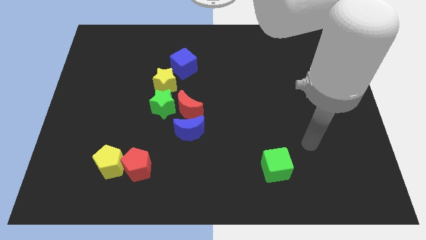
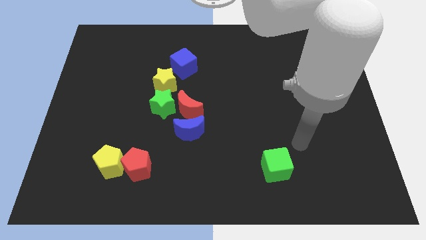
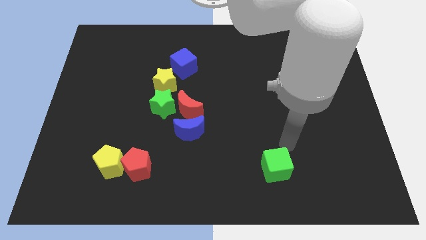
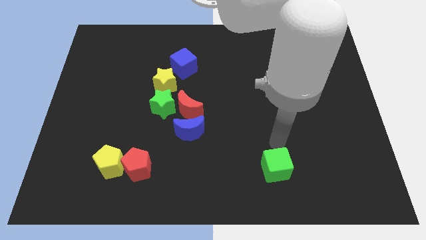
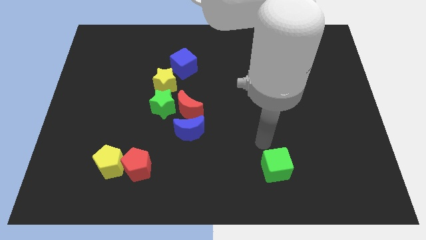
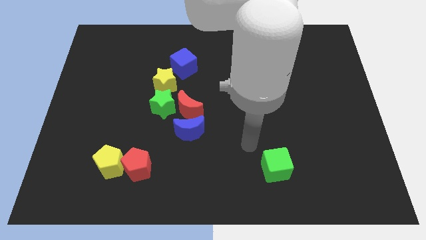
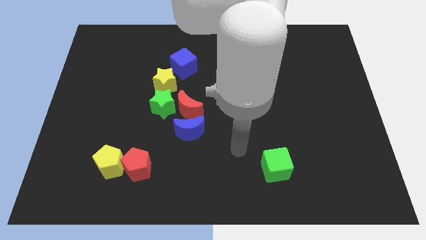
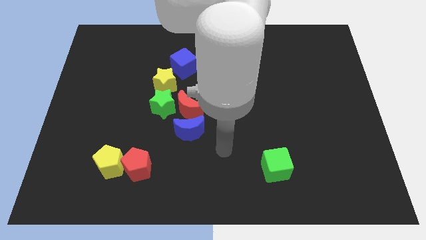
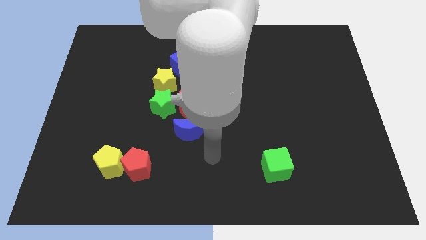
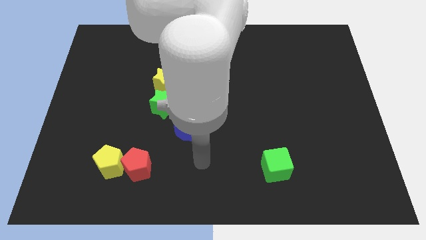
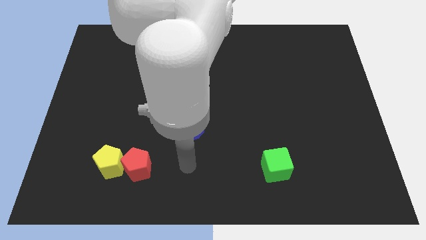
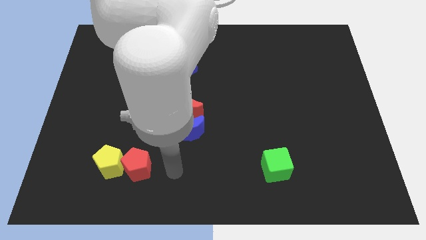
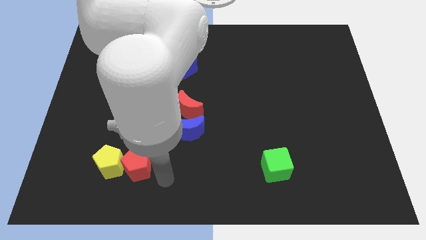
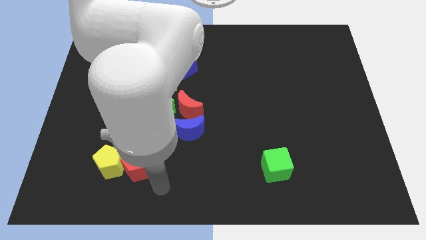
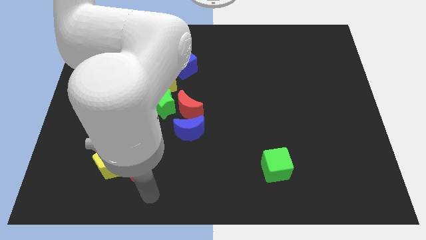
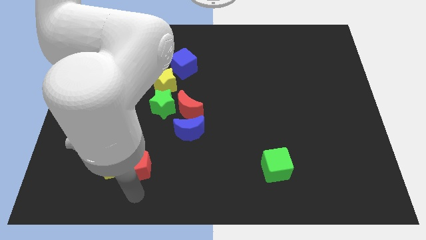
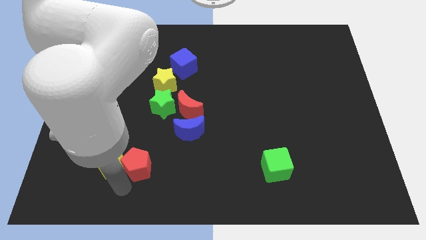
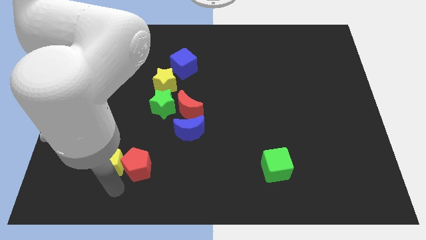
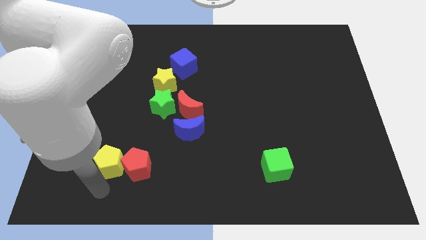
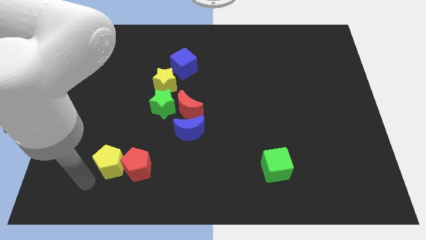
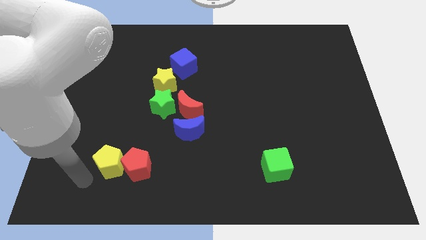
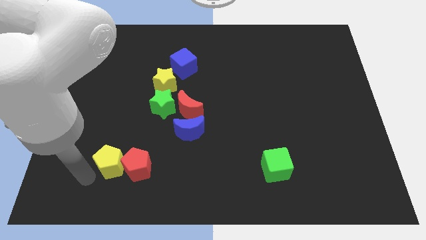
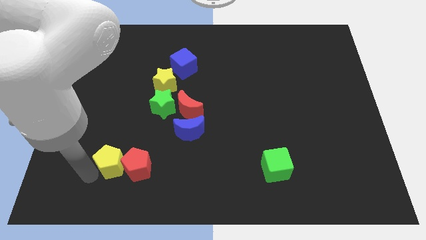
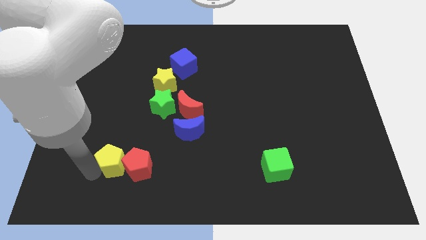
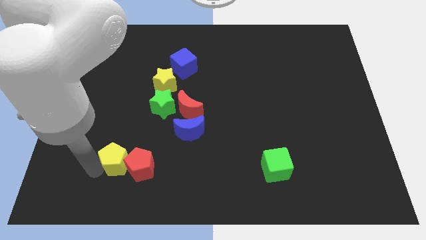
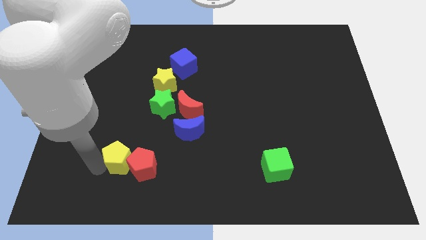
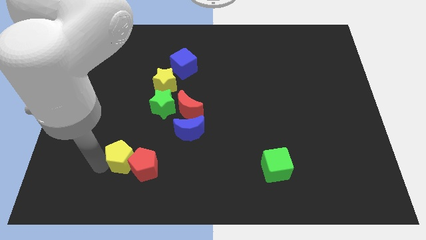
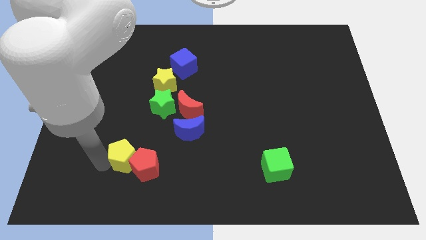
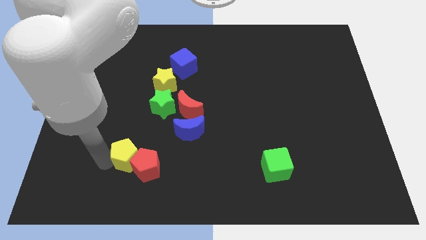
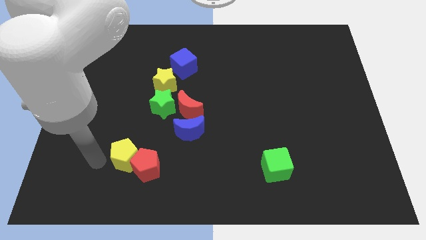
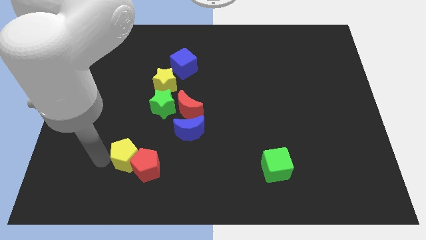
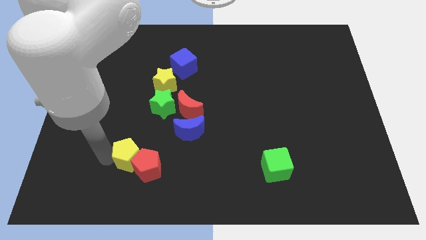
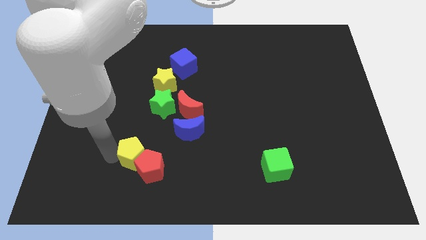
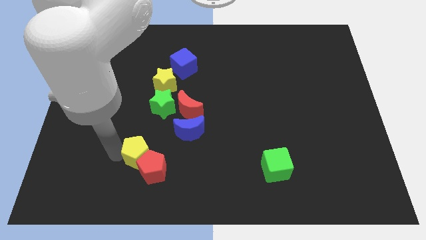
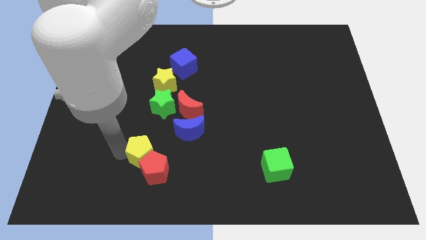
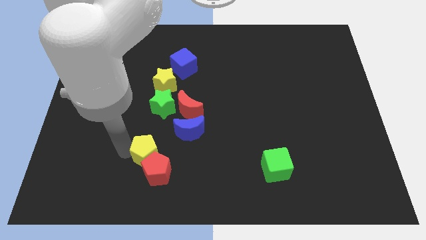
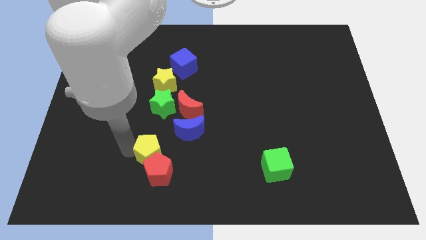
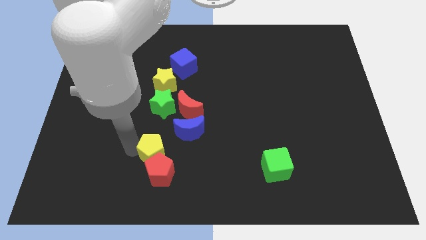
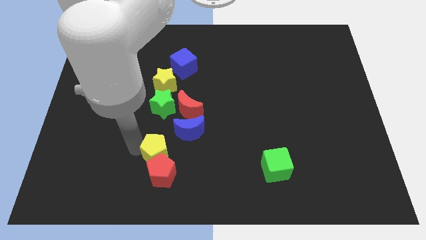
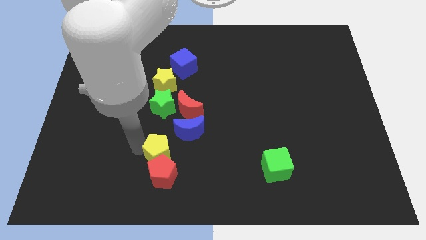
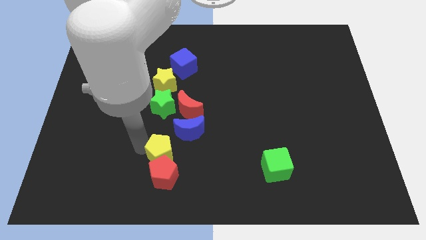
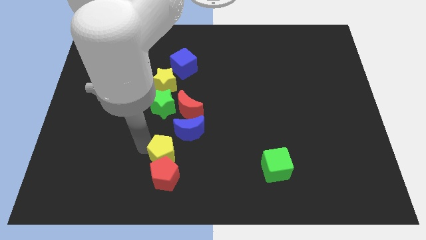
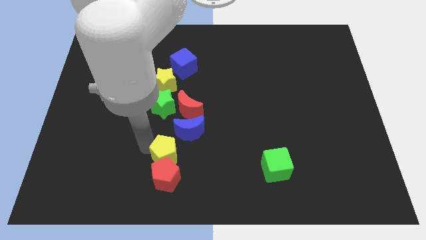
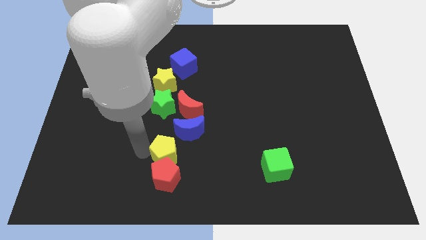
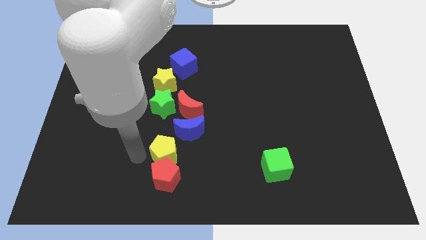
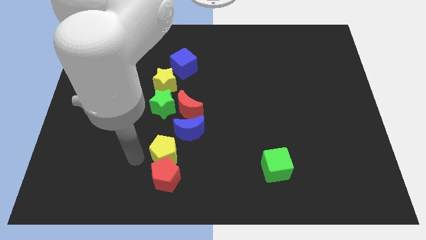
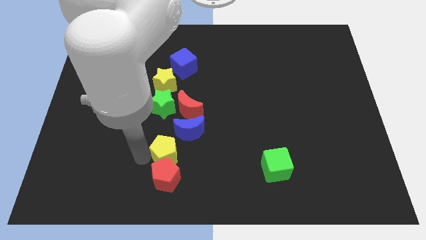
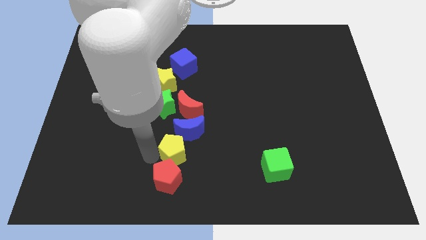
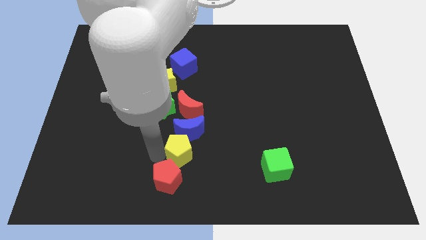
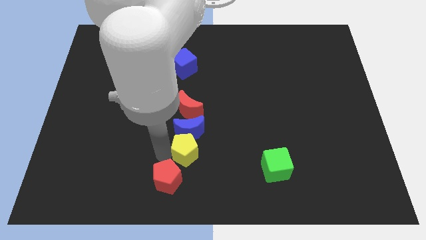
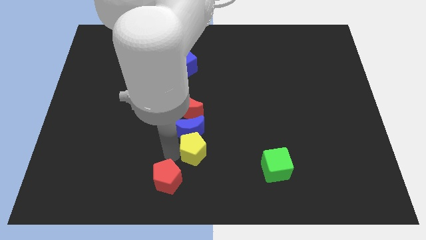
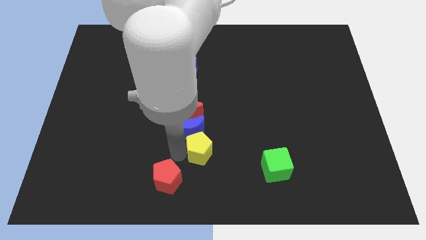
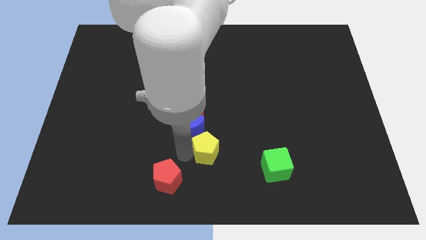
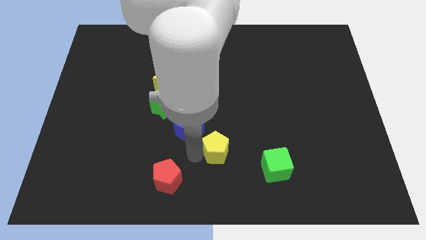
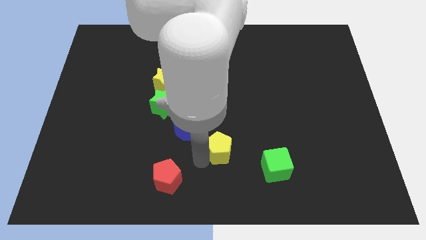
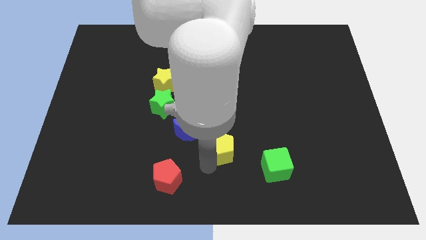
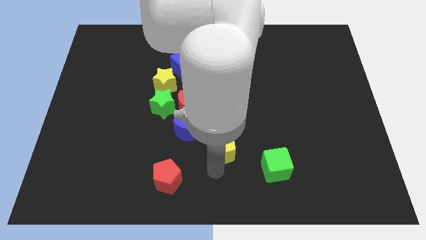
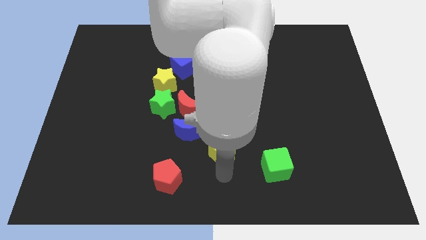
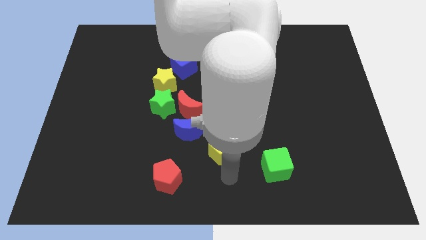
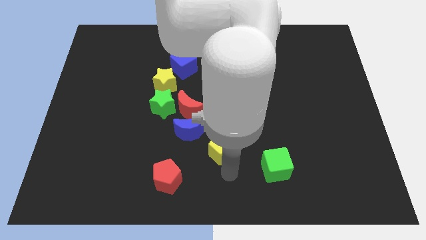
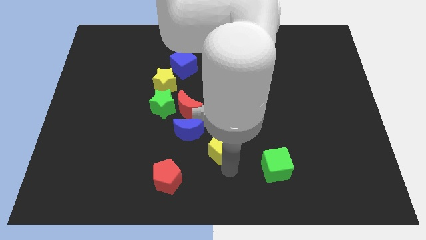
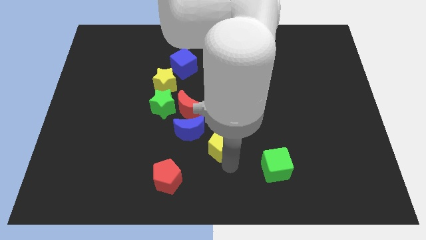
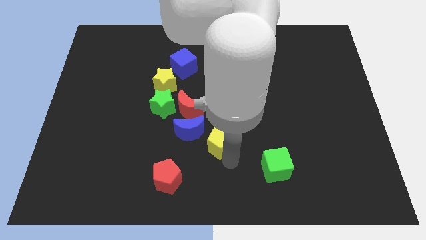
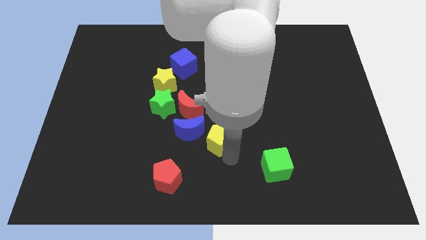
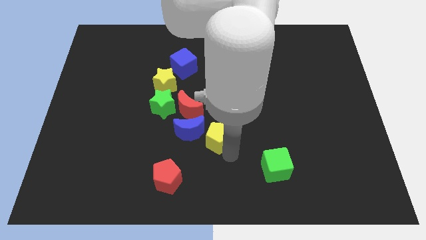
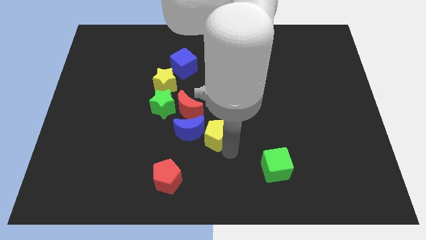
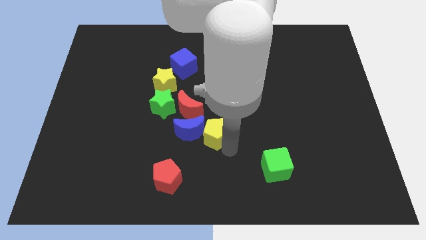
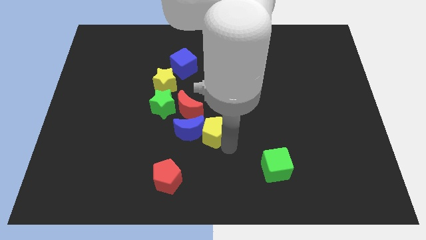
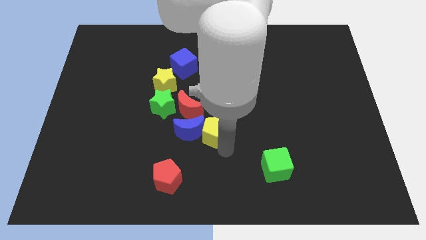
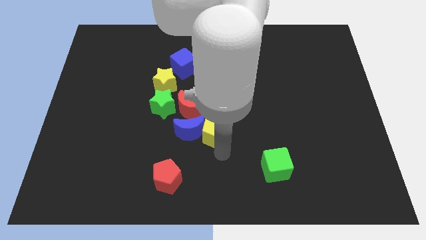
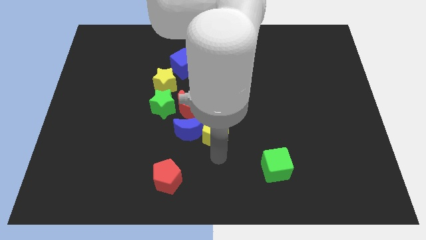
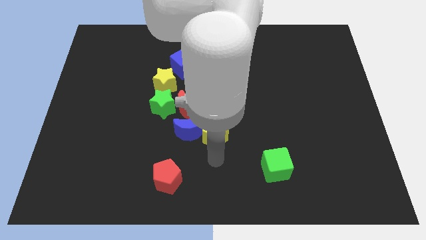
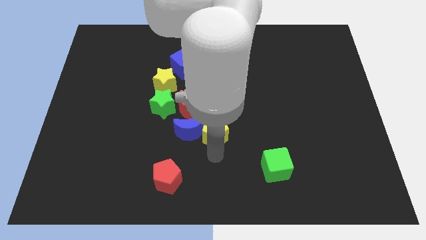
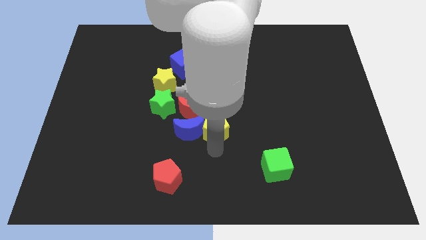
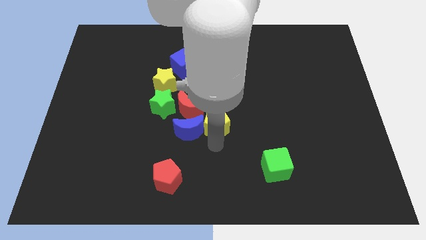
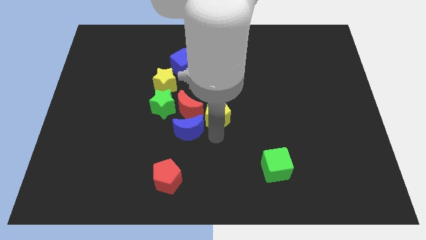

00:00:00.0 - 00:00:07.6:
slide the yellow pentagon diagonally up and to the right

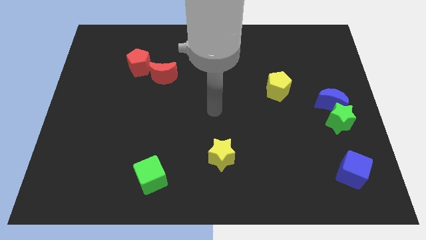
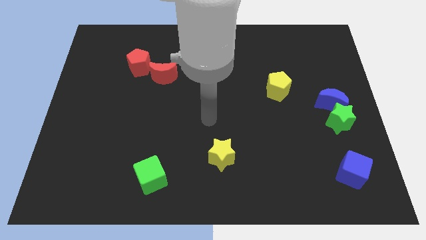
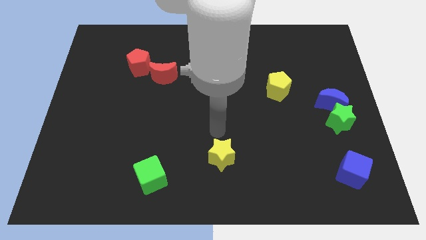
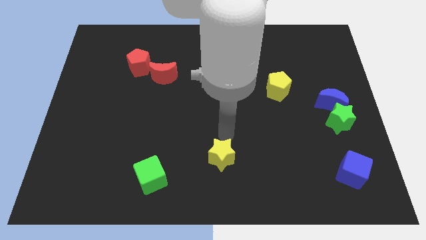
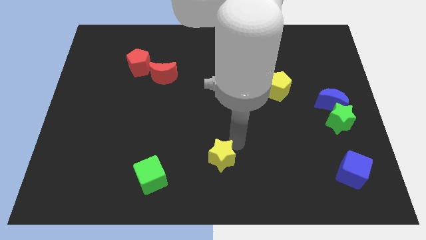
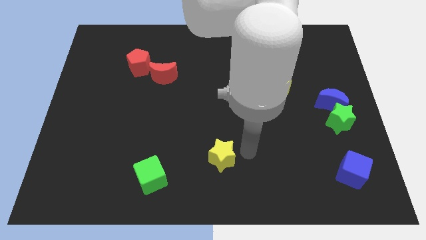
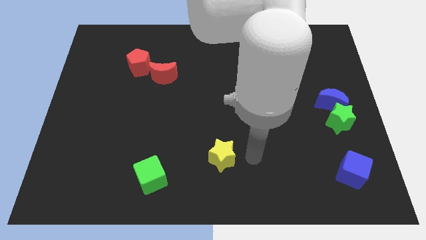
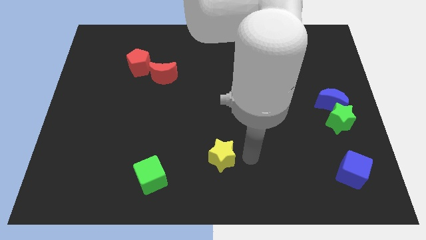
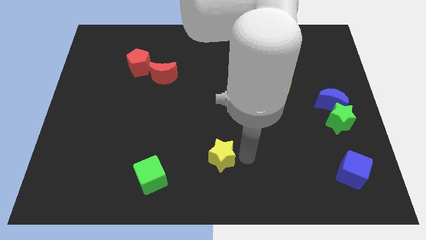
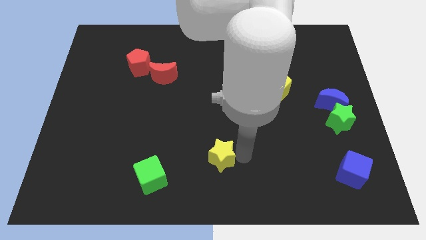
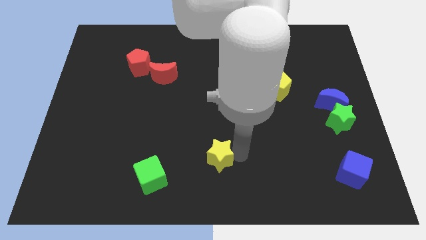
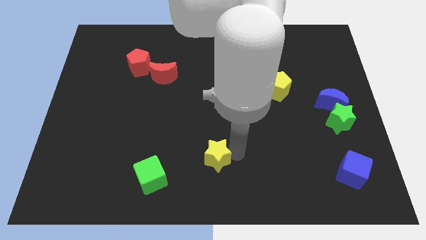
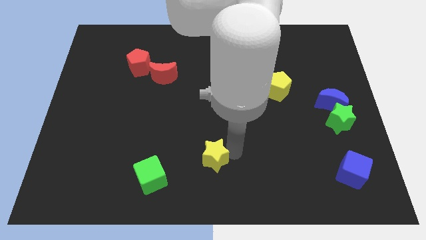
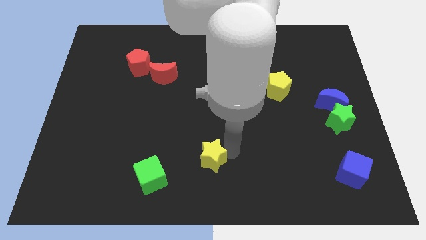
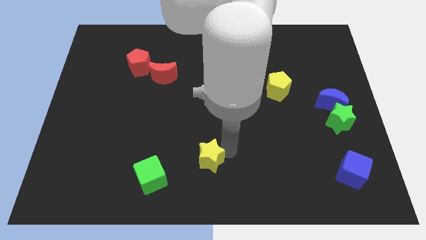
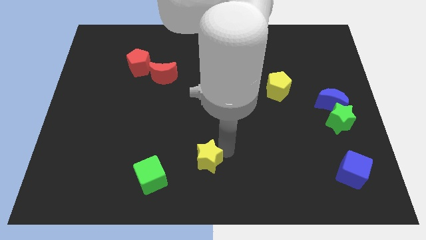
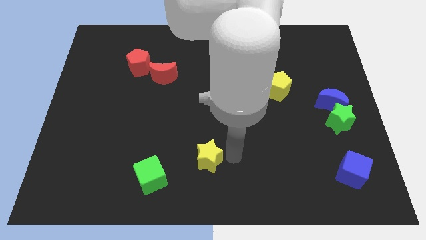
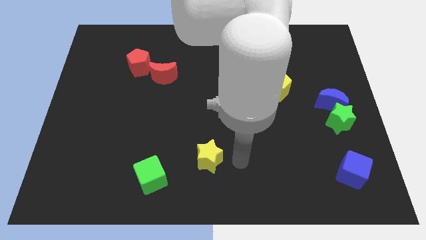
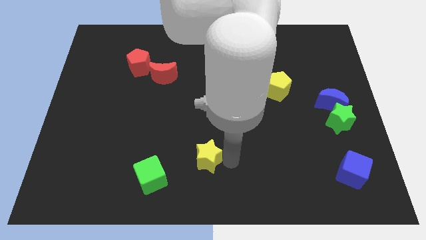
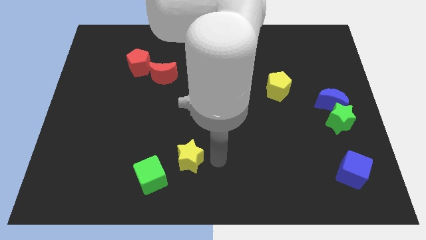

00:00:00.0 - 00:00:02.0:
push the yellow star a bit left
